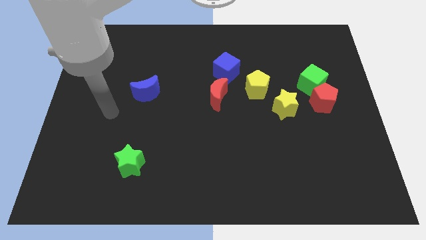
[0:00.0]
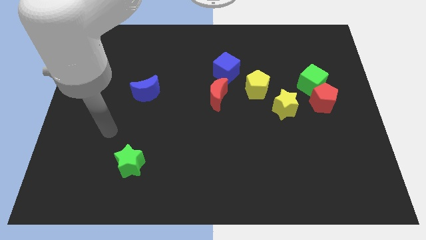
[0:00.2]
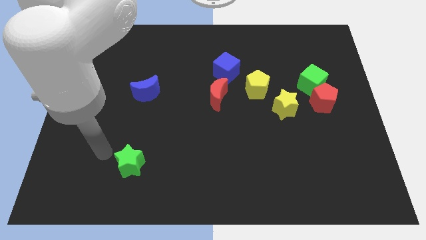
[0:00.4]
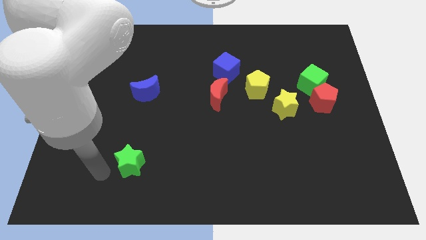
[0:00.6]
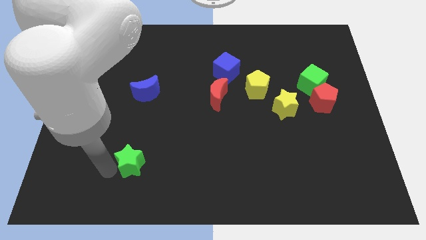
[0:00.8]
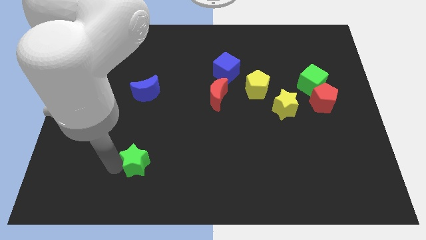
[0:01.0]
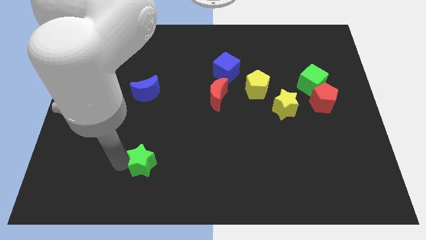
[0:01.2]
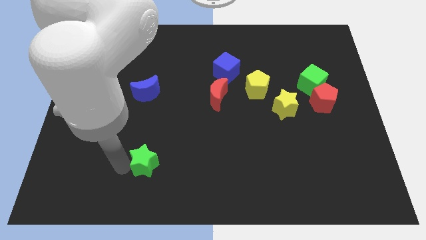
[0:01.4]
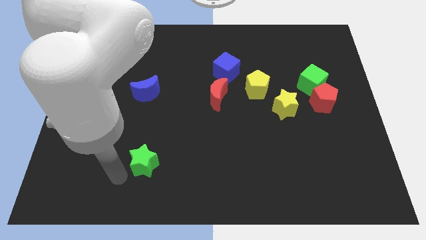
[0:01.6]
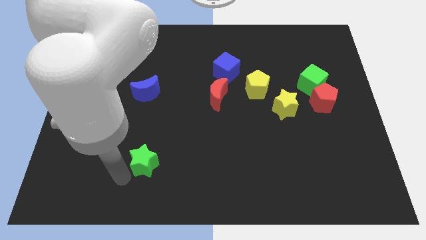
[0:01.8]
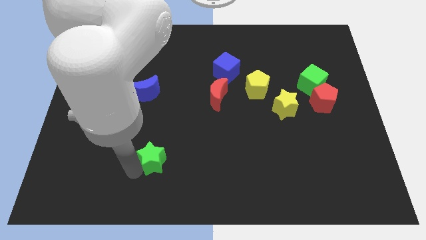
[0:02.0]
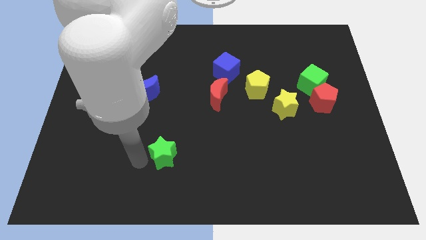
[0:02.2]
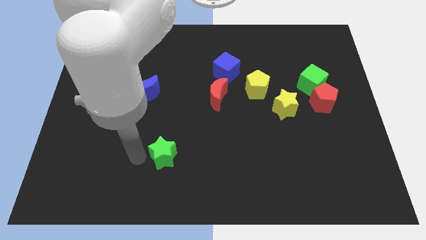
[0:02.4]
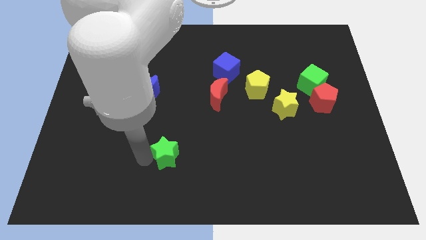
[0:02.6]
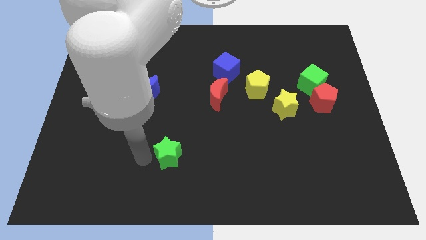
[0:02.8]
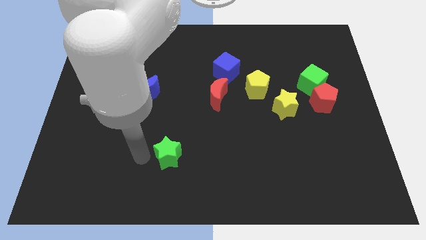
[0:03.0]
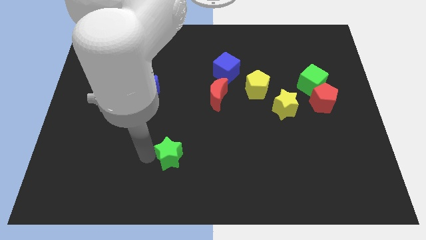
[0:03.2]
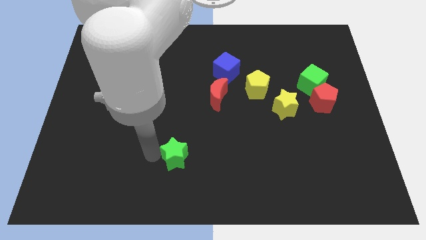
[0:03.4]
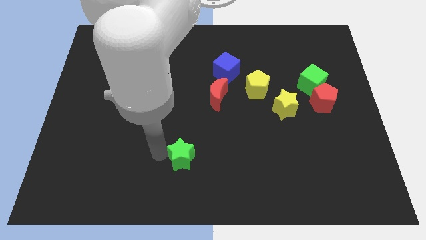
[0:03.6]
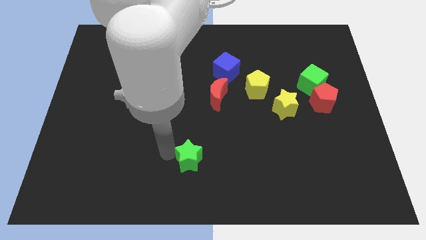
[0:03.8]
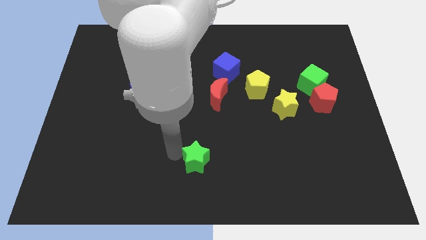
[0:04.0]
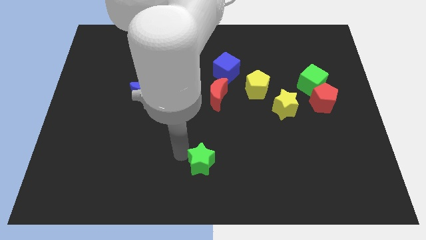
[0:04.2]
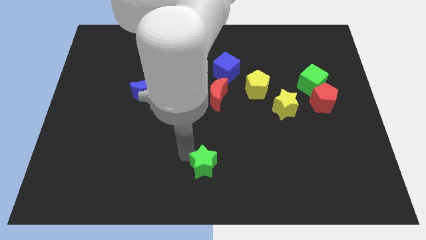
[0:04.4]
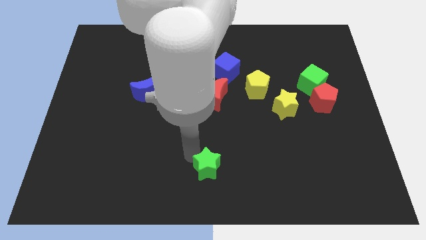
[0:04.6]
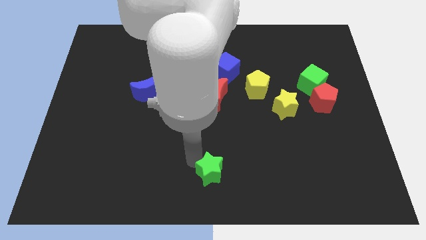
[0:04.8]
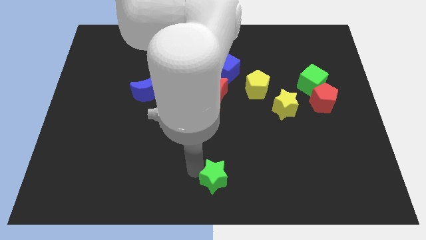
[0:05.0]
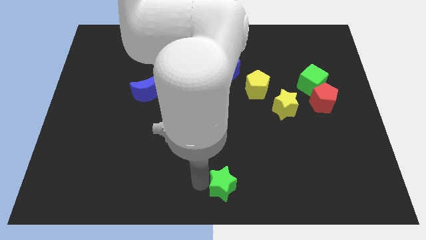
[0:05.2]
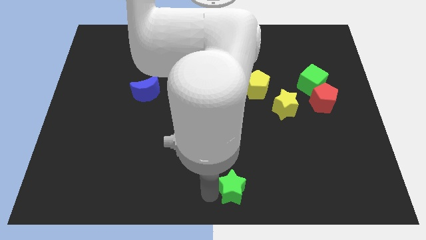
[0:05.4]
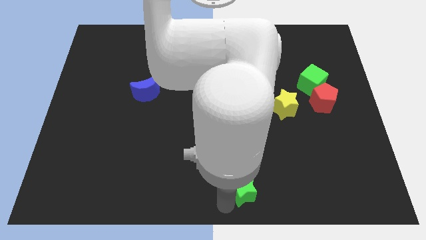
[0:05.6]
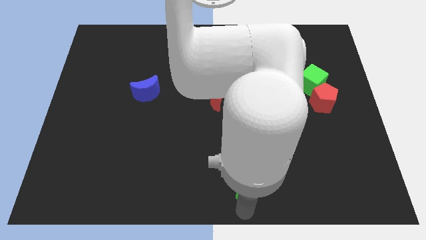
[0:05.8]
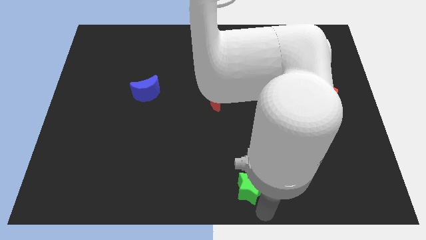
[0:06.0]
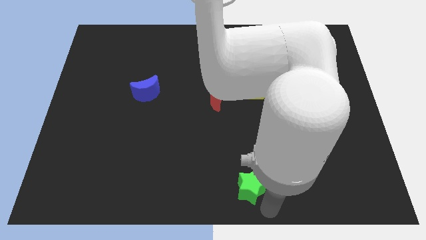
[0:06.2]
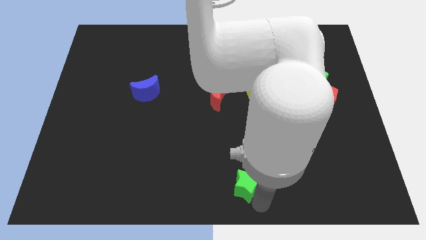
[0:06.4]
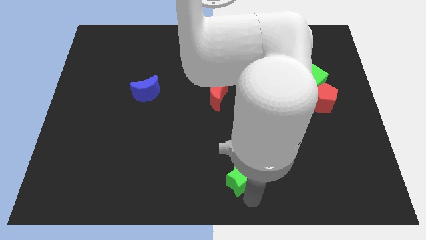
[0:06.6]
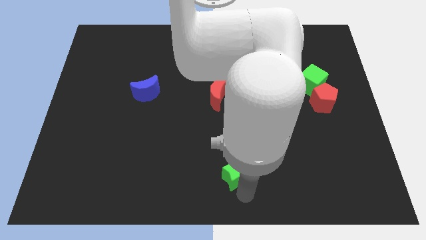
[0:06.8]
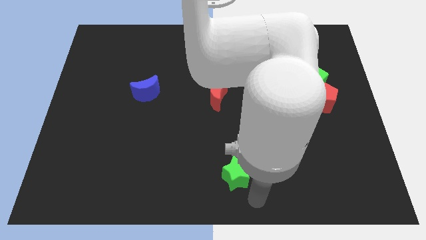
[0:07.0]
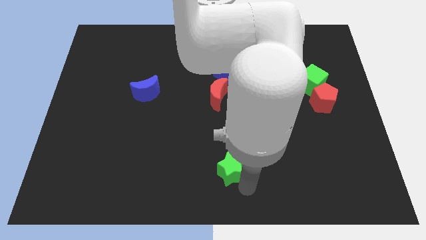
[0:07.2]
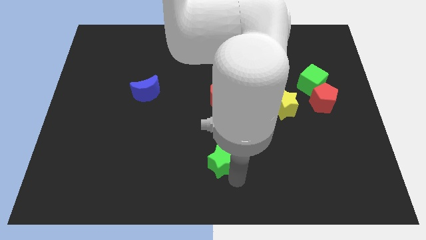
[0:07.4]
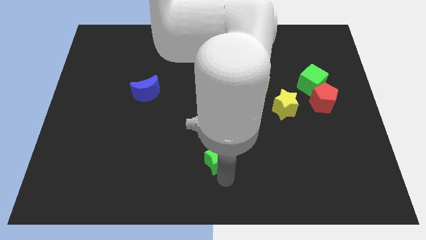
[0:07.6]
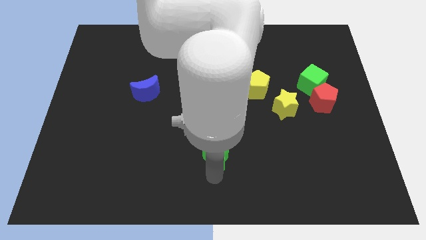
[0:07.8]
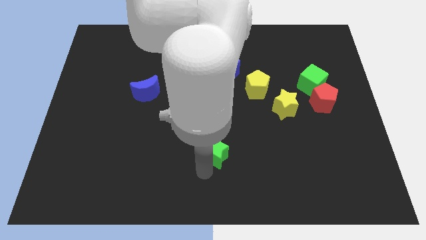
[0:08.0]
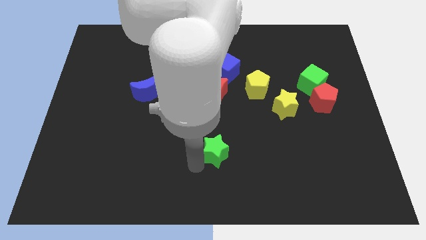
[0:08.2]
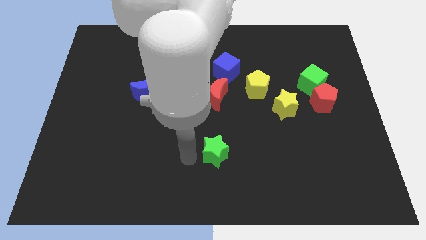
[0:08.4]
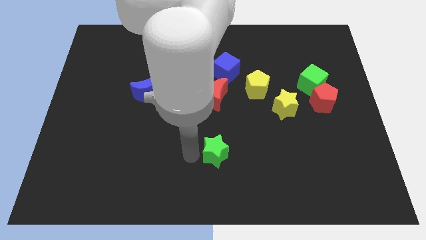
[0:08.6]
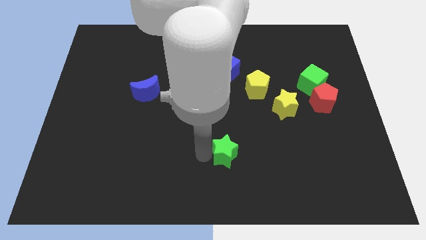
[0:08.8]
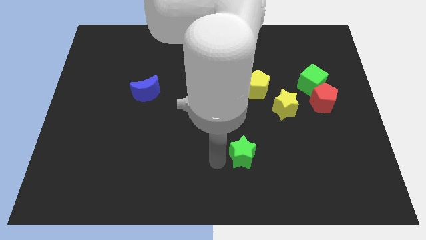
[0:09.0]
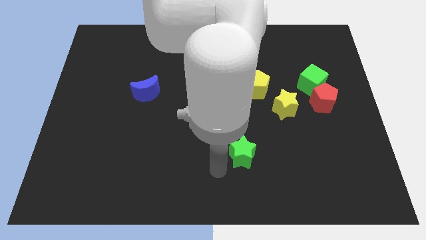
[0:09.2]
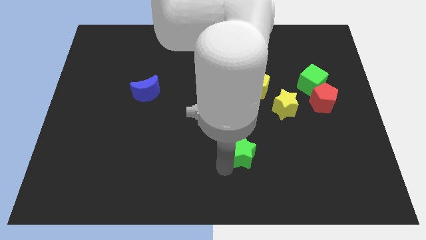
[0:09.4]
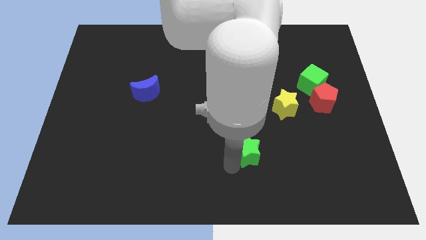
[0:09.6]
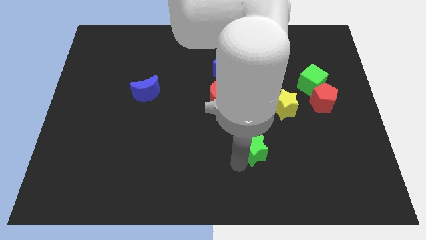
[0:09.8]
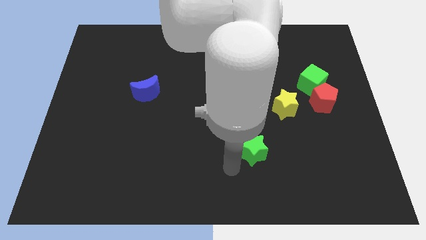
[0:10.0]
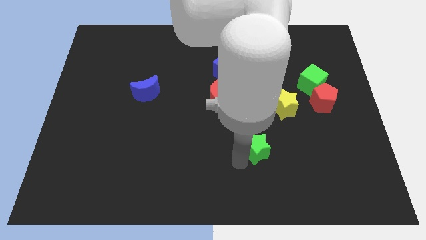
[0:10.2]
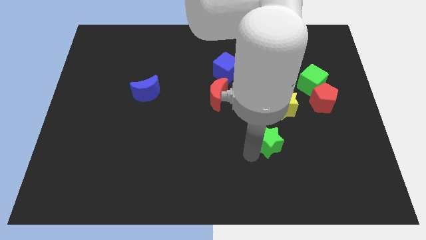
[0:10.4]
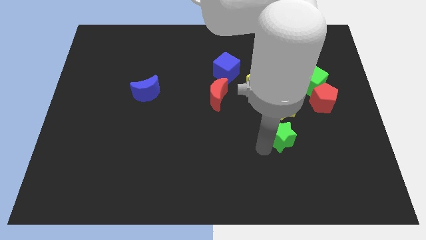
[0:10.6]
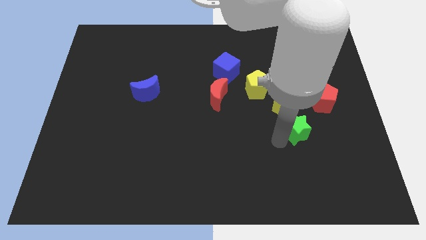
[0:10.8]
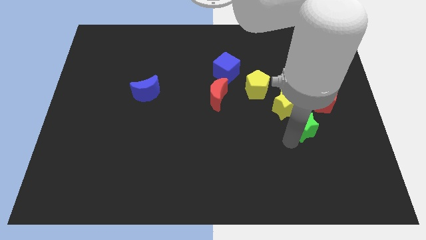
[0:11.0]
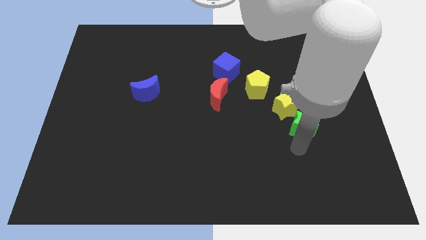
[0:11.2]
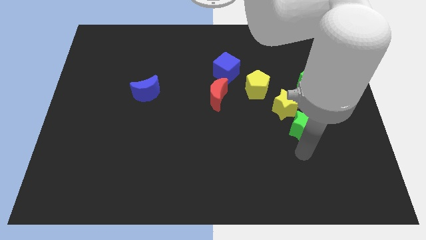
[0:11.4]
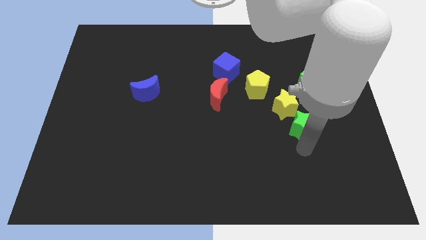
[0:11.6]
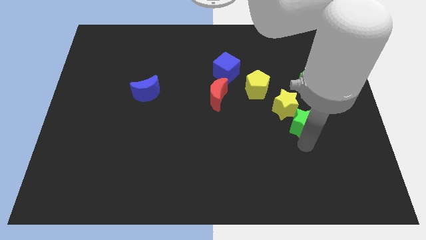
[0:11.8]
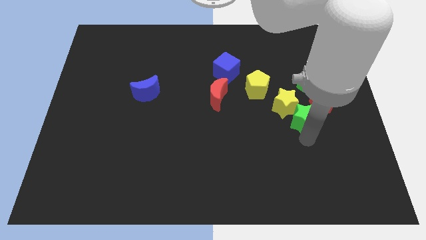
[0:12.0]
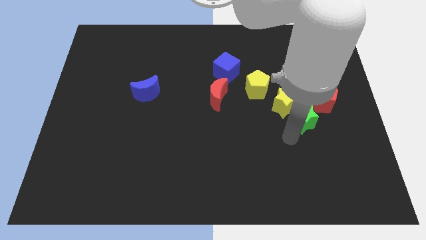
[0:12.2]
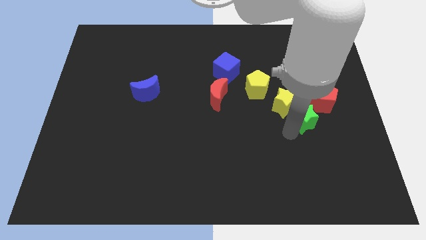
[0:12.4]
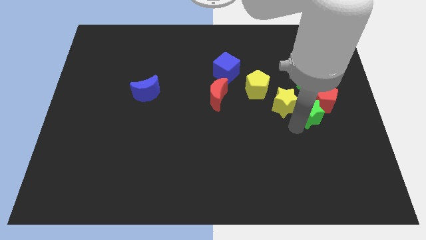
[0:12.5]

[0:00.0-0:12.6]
put the green star next to the red pentagon

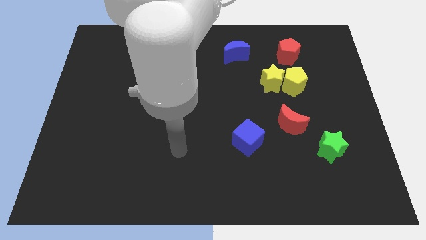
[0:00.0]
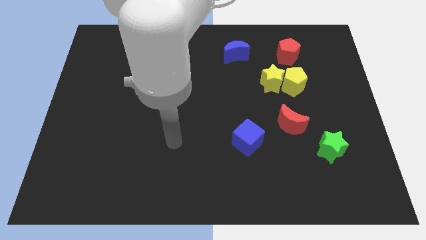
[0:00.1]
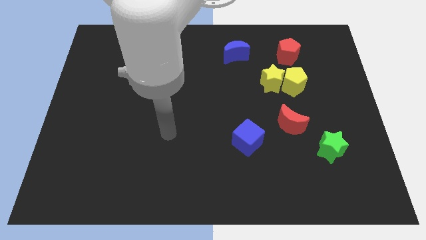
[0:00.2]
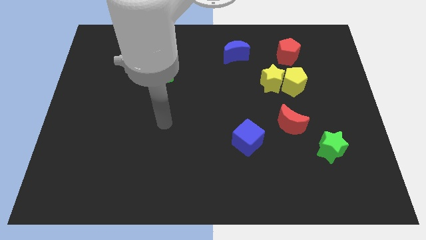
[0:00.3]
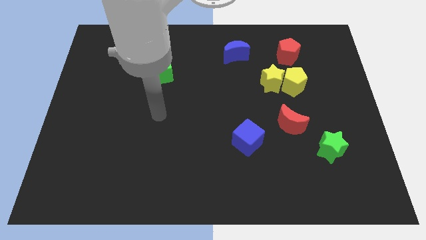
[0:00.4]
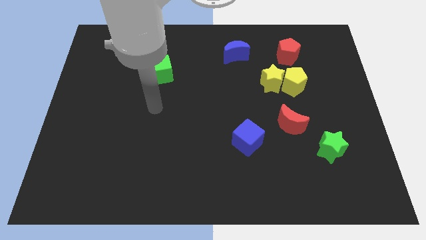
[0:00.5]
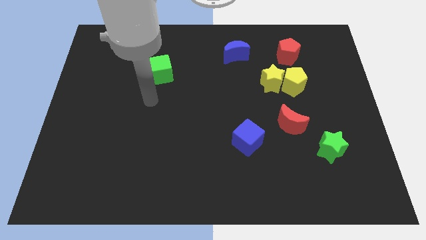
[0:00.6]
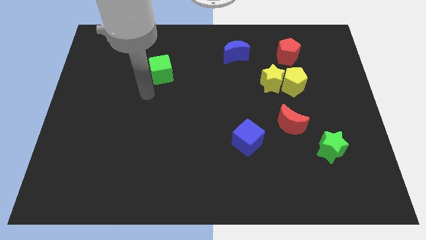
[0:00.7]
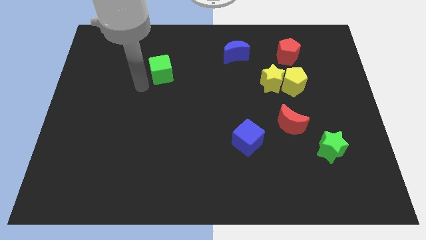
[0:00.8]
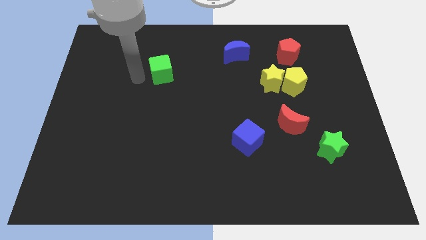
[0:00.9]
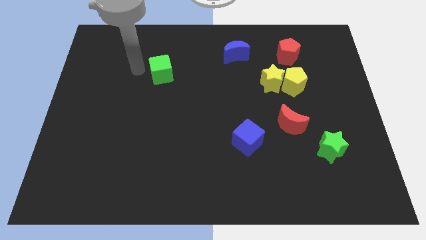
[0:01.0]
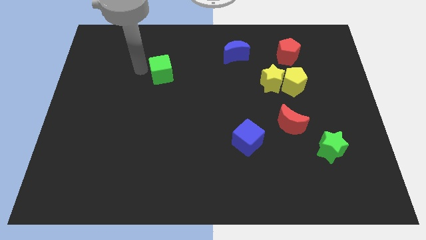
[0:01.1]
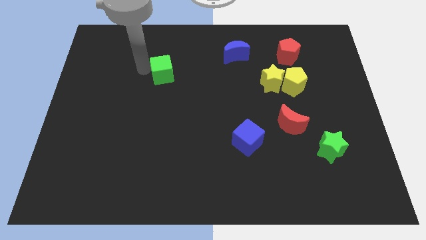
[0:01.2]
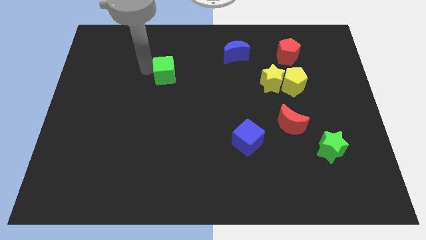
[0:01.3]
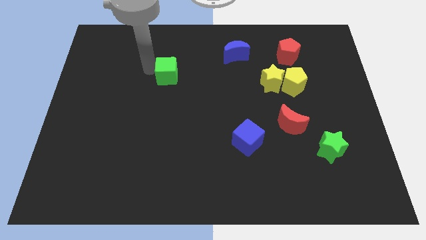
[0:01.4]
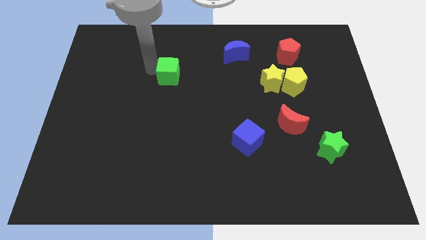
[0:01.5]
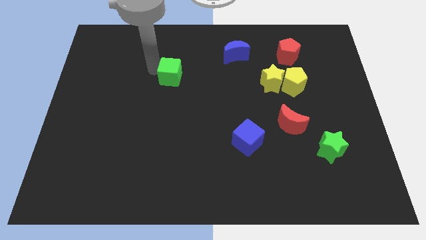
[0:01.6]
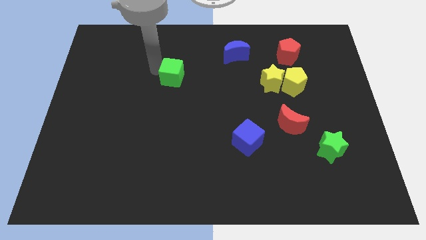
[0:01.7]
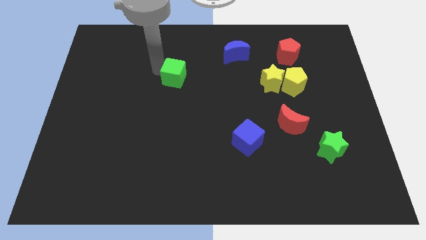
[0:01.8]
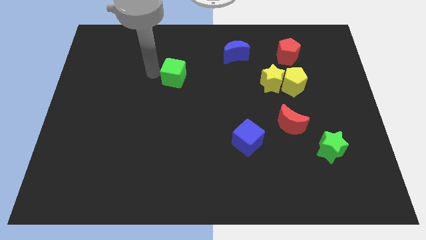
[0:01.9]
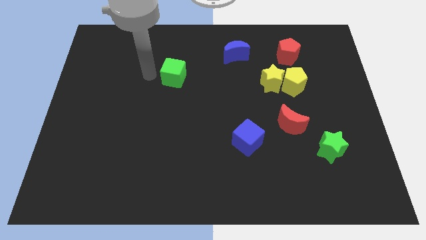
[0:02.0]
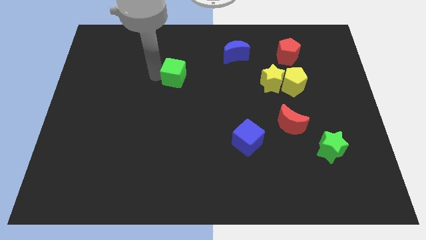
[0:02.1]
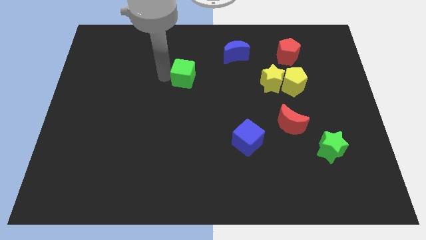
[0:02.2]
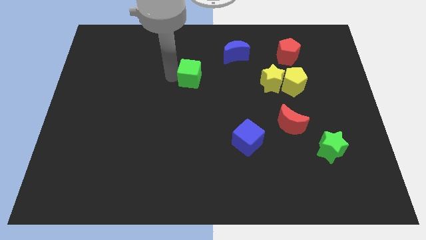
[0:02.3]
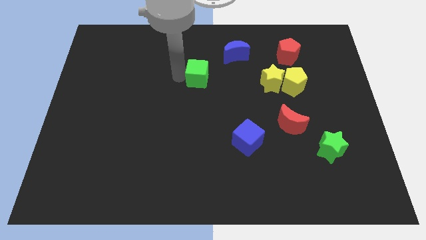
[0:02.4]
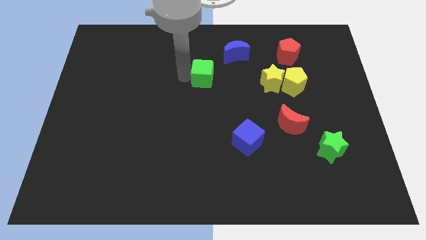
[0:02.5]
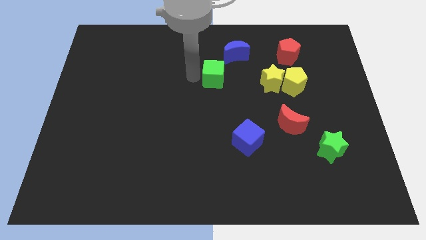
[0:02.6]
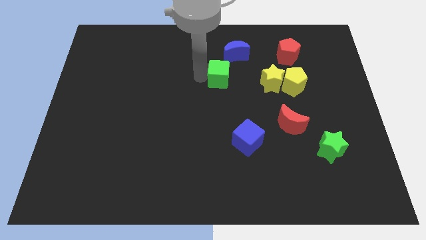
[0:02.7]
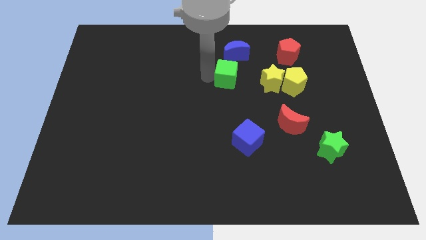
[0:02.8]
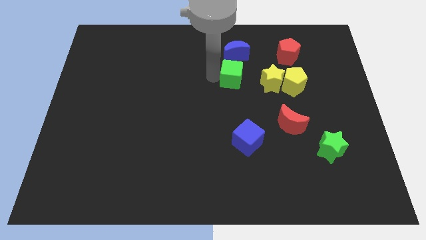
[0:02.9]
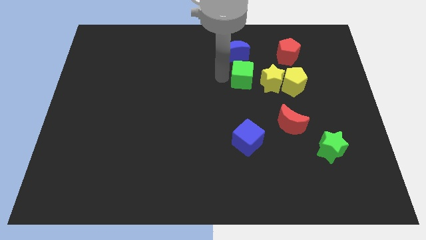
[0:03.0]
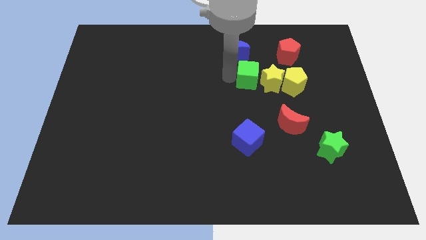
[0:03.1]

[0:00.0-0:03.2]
put the green cube close to the yellow star
